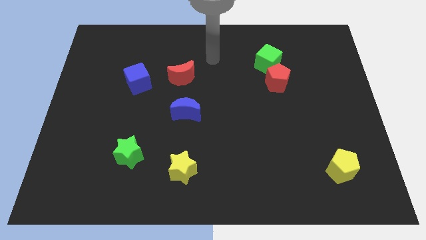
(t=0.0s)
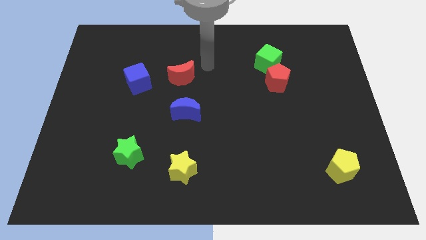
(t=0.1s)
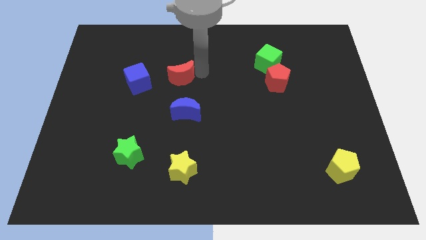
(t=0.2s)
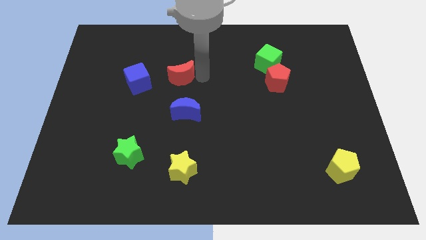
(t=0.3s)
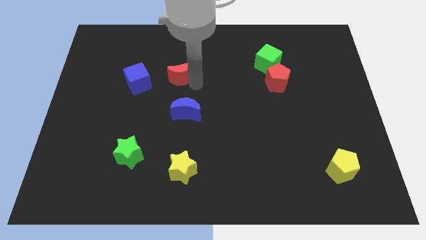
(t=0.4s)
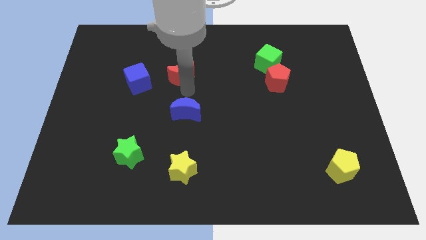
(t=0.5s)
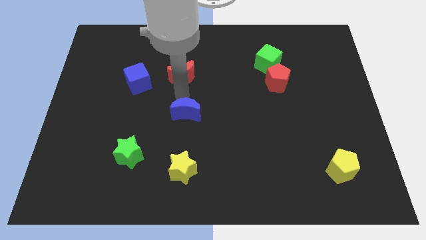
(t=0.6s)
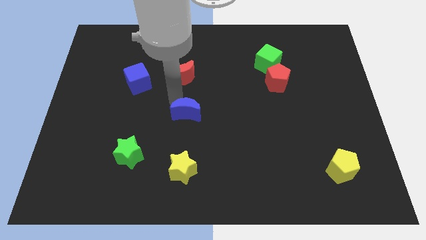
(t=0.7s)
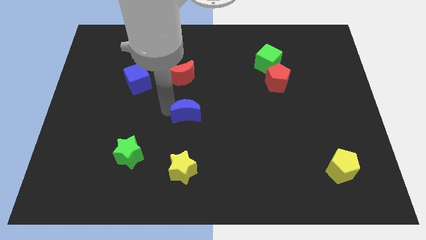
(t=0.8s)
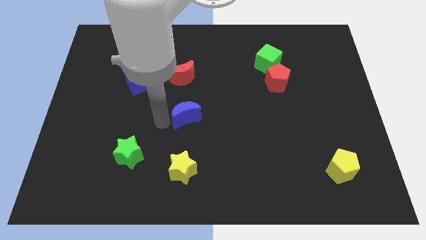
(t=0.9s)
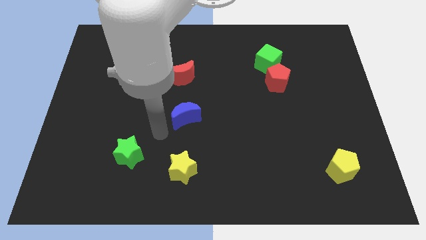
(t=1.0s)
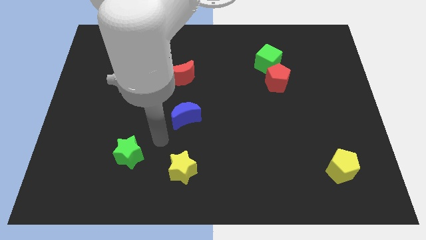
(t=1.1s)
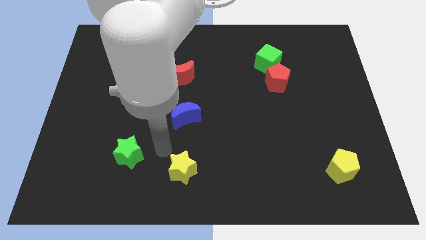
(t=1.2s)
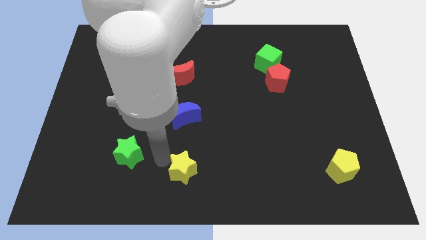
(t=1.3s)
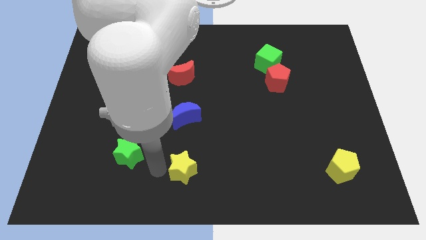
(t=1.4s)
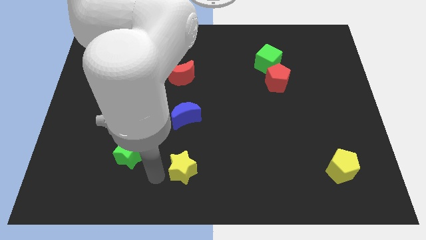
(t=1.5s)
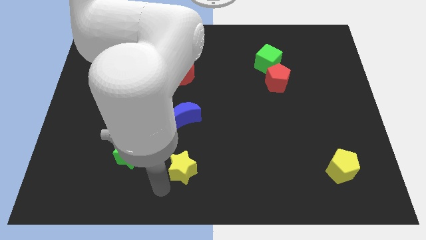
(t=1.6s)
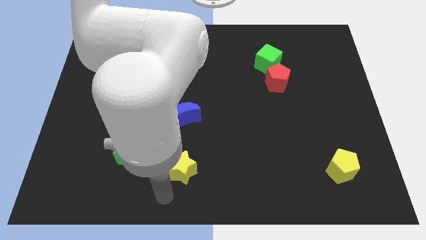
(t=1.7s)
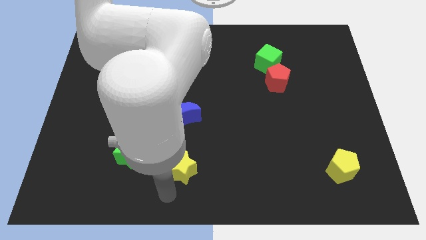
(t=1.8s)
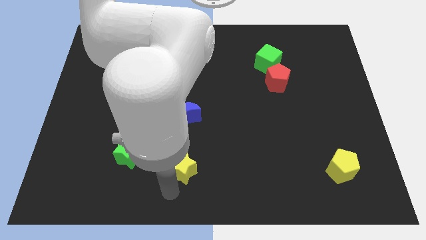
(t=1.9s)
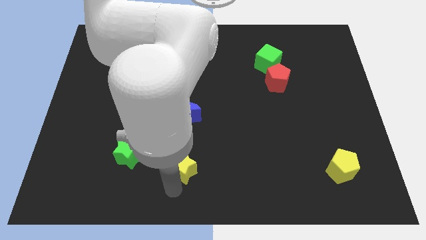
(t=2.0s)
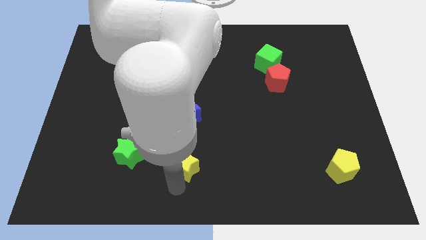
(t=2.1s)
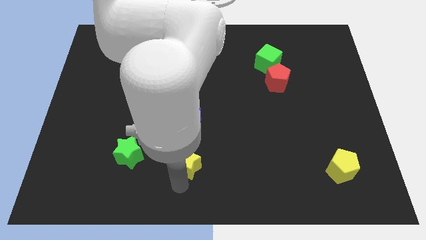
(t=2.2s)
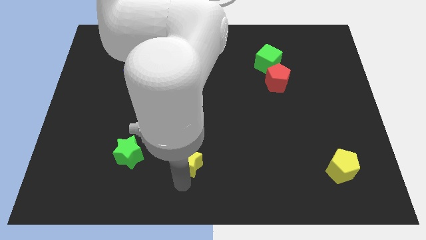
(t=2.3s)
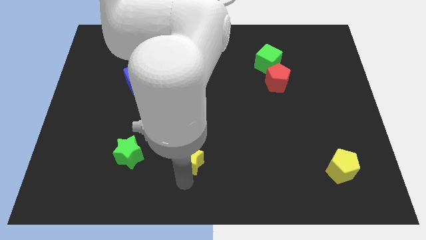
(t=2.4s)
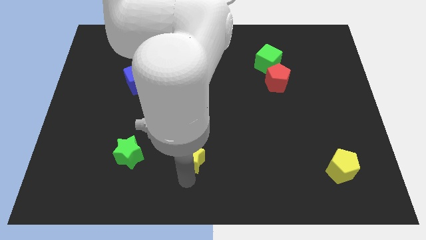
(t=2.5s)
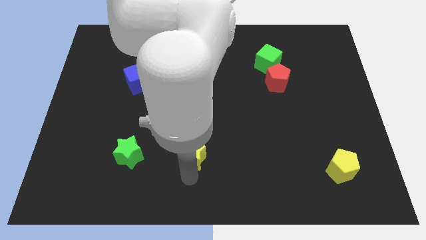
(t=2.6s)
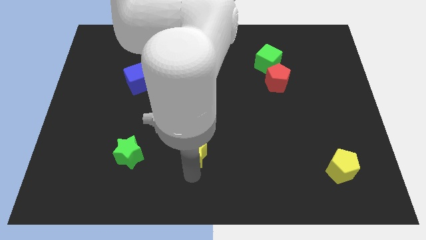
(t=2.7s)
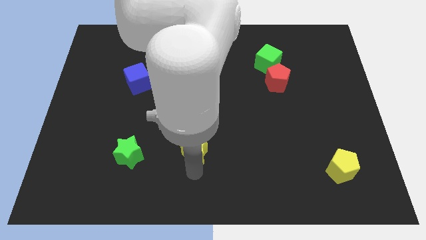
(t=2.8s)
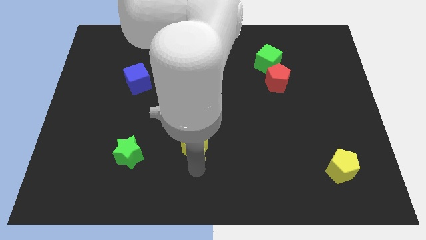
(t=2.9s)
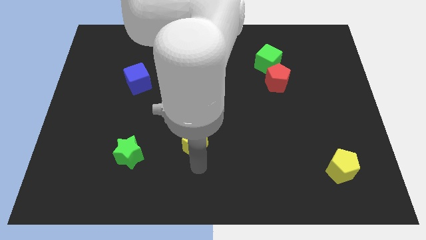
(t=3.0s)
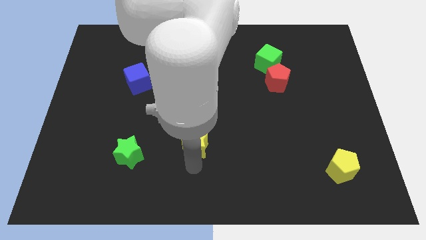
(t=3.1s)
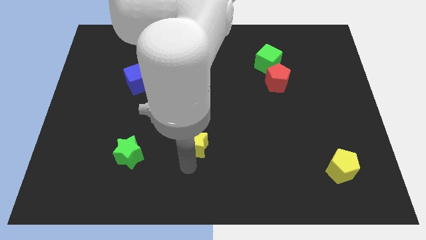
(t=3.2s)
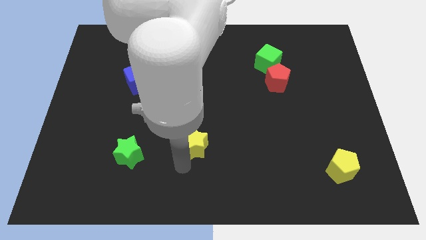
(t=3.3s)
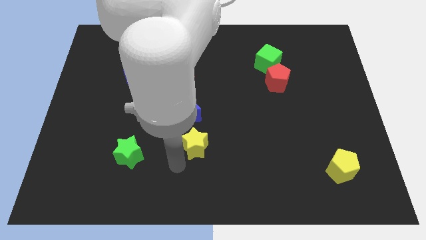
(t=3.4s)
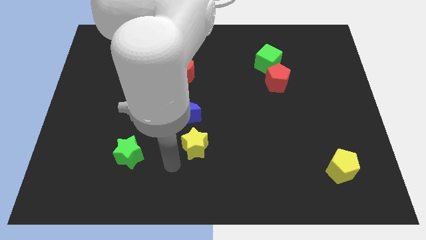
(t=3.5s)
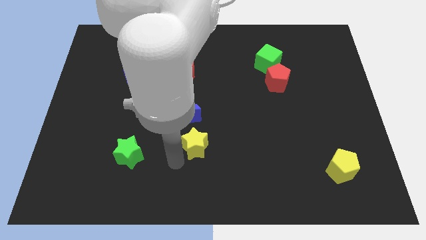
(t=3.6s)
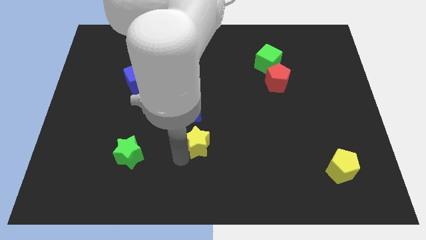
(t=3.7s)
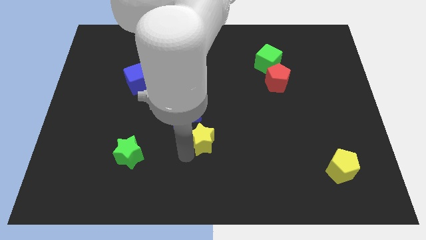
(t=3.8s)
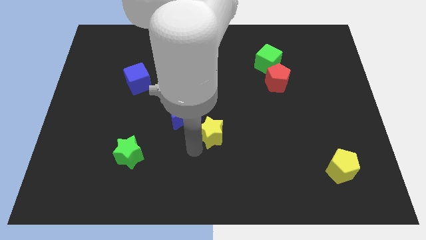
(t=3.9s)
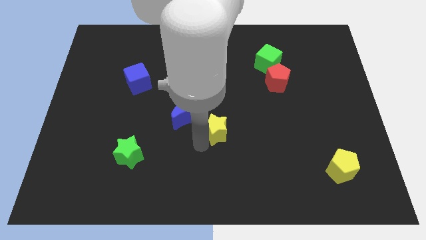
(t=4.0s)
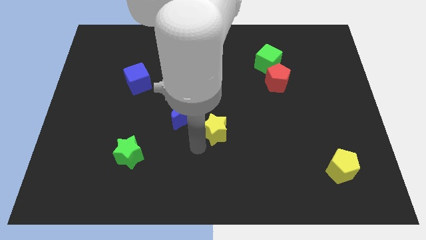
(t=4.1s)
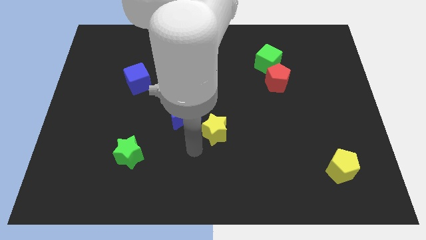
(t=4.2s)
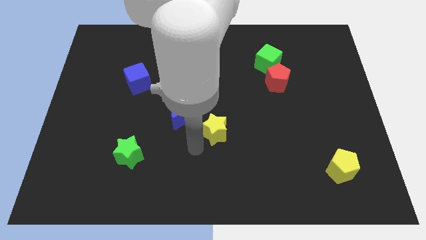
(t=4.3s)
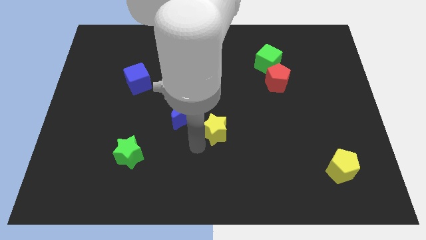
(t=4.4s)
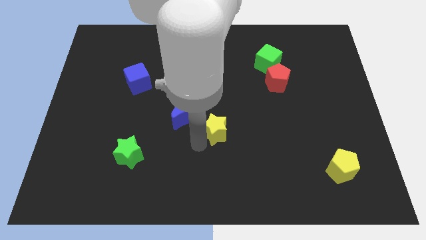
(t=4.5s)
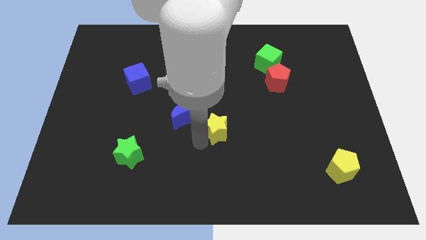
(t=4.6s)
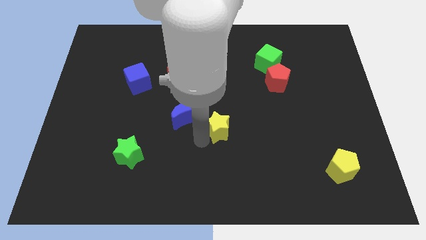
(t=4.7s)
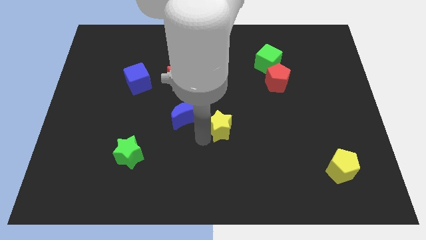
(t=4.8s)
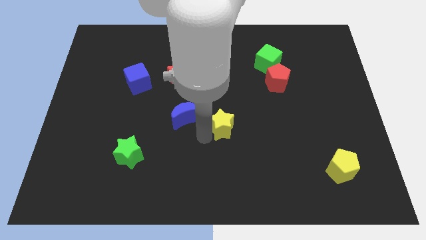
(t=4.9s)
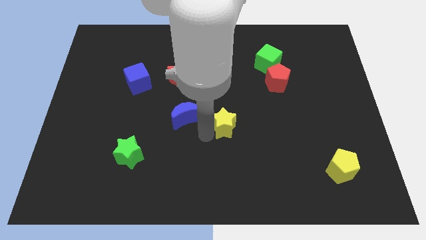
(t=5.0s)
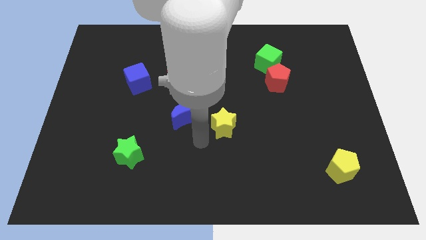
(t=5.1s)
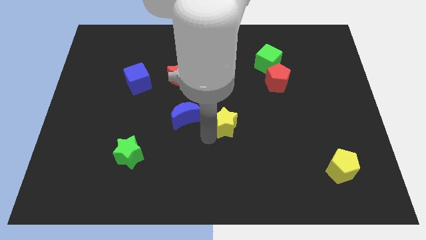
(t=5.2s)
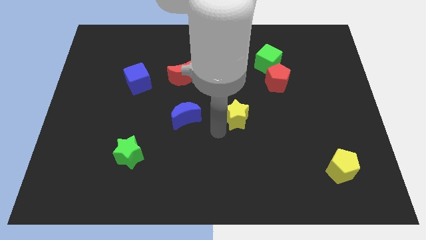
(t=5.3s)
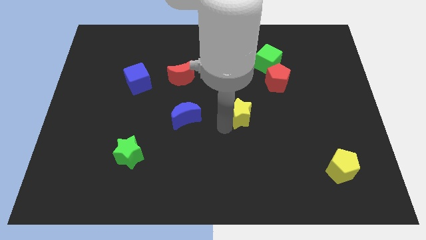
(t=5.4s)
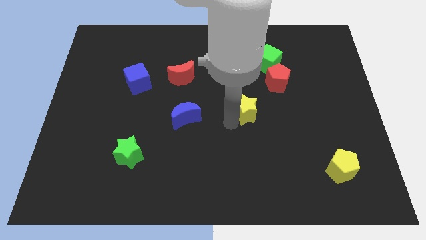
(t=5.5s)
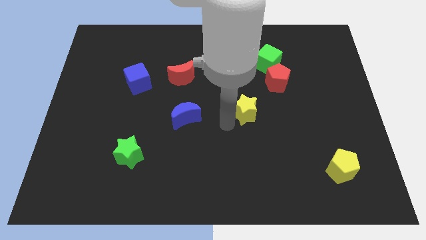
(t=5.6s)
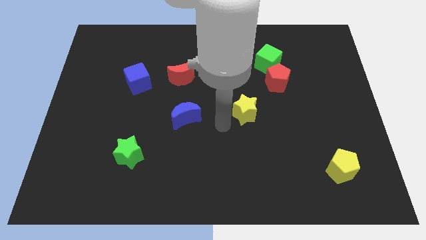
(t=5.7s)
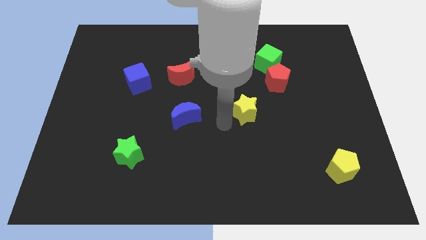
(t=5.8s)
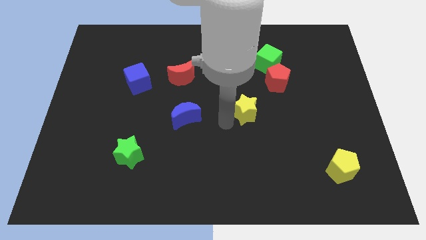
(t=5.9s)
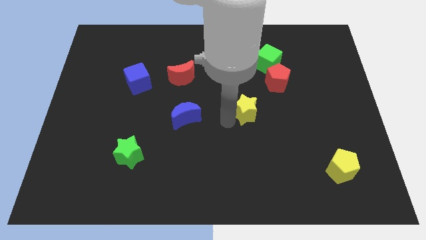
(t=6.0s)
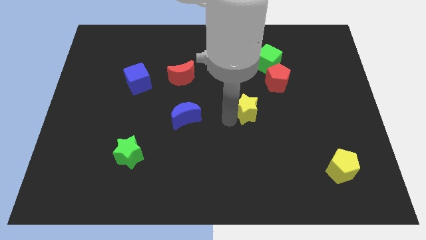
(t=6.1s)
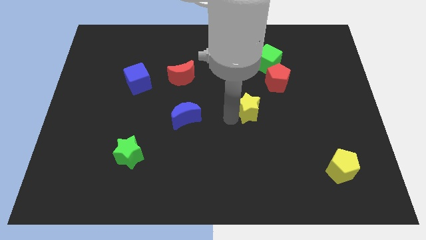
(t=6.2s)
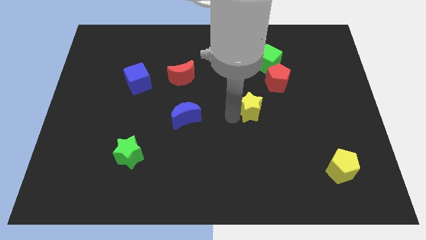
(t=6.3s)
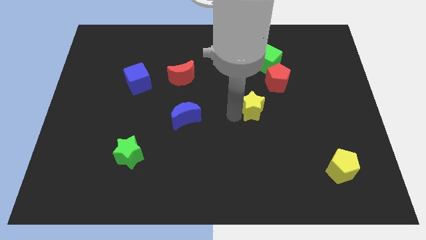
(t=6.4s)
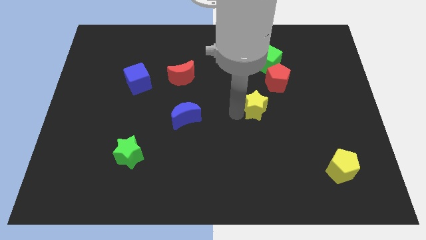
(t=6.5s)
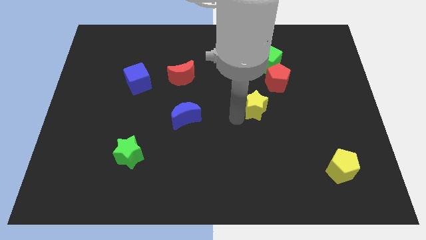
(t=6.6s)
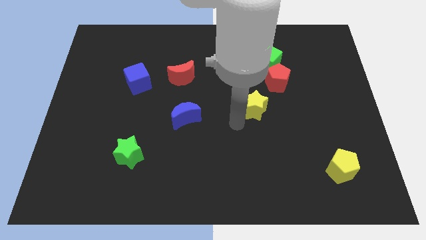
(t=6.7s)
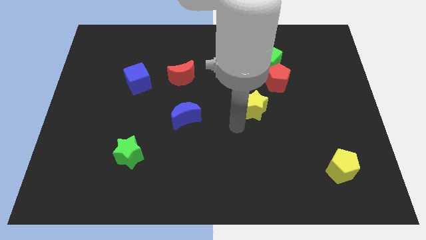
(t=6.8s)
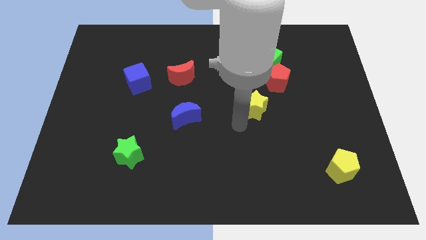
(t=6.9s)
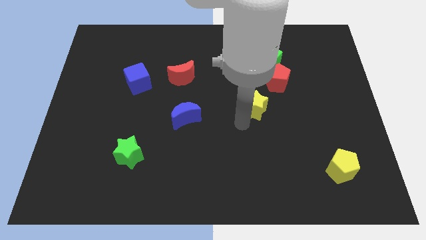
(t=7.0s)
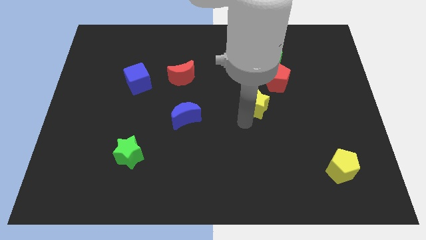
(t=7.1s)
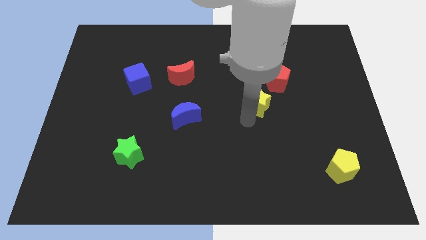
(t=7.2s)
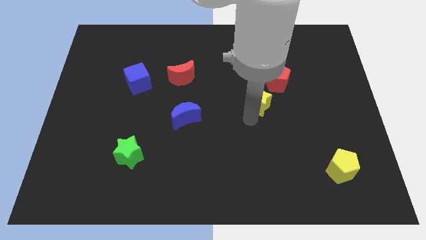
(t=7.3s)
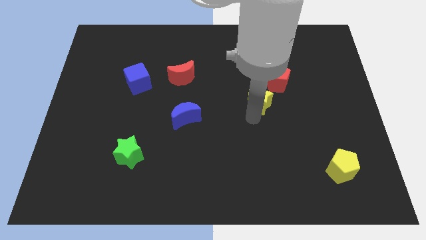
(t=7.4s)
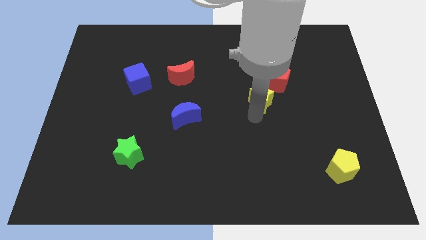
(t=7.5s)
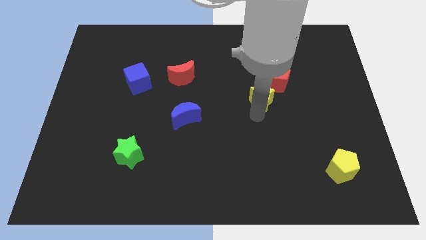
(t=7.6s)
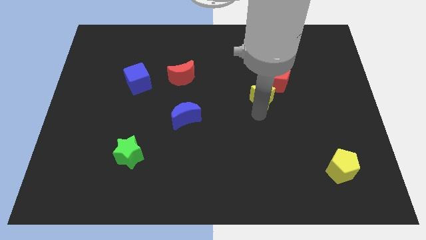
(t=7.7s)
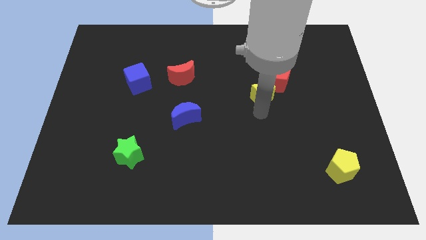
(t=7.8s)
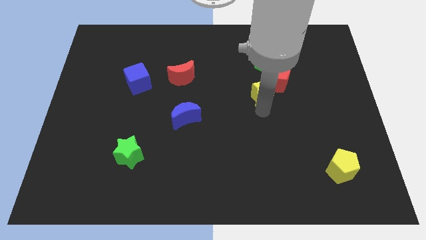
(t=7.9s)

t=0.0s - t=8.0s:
move the yellow star next to the red pentagon
